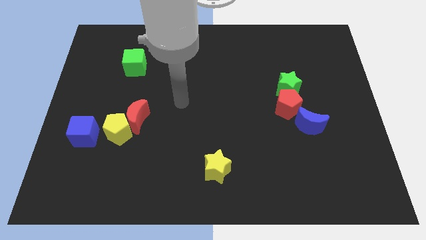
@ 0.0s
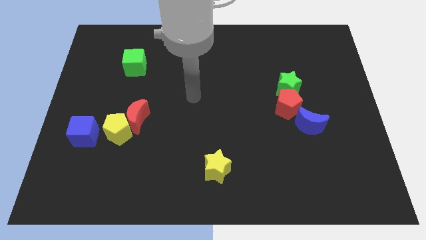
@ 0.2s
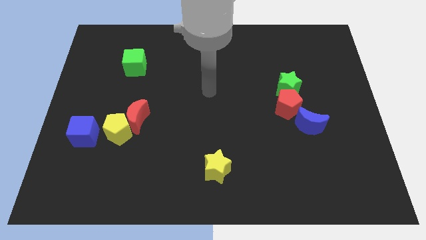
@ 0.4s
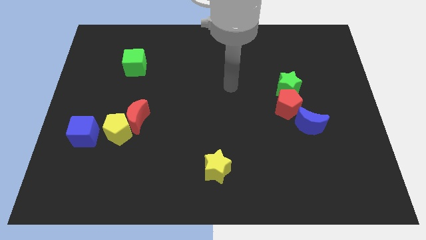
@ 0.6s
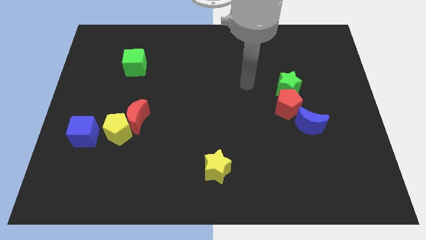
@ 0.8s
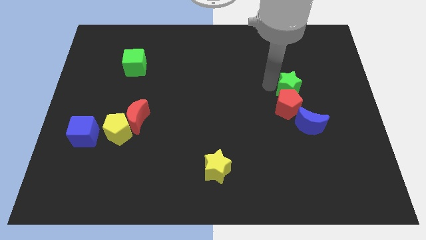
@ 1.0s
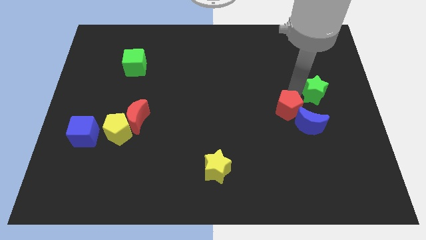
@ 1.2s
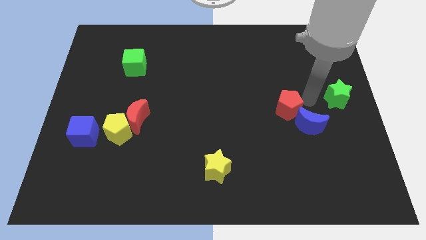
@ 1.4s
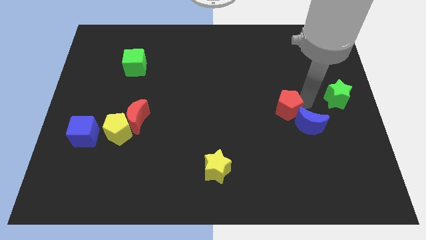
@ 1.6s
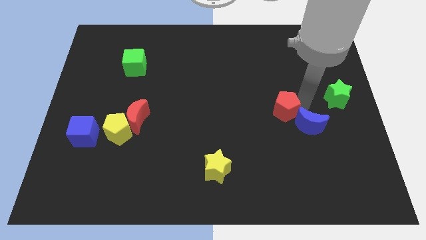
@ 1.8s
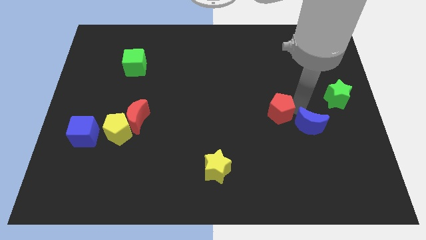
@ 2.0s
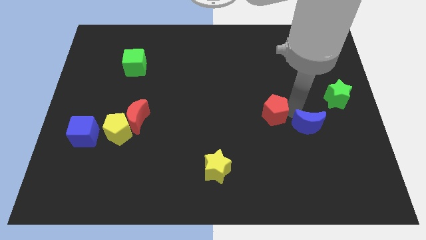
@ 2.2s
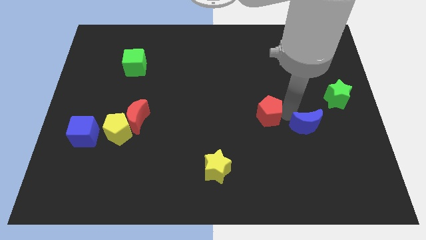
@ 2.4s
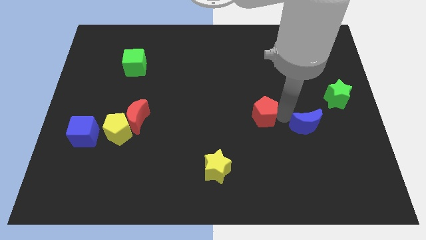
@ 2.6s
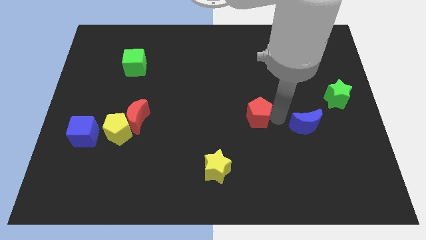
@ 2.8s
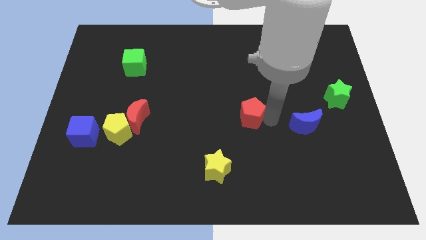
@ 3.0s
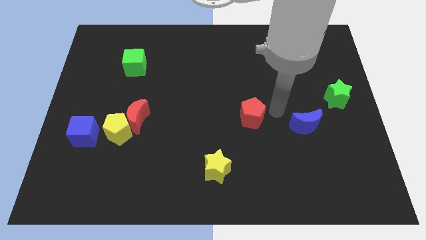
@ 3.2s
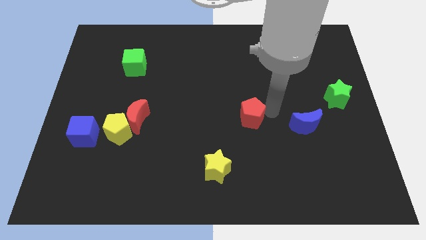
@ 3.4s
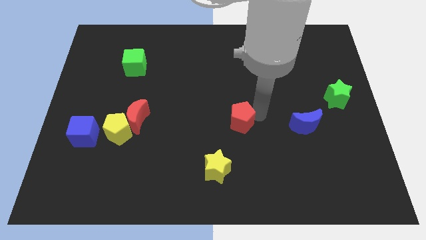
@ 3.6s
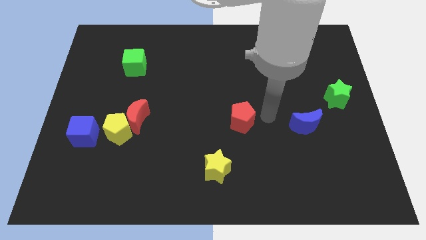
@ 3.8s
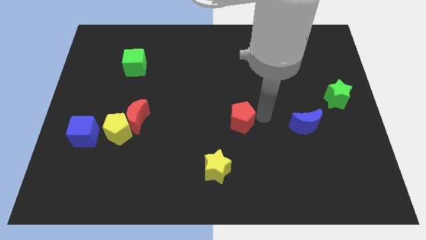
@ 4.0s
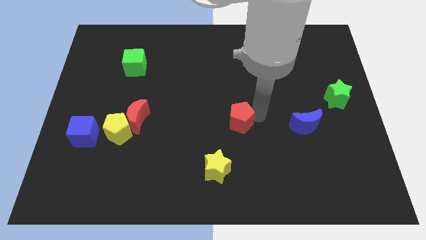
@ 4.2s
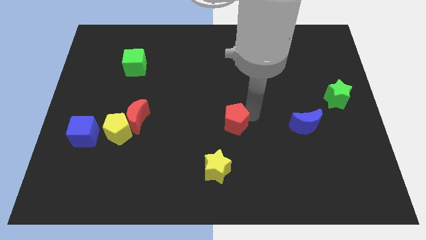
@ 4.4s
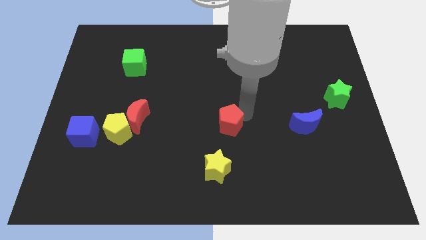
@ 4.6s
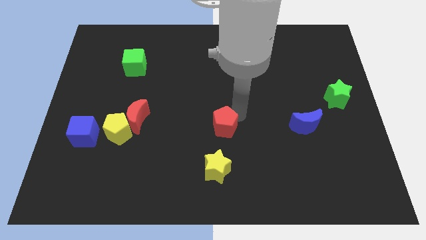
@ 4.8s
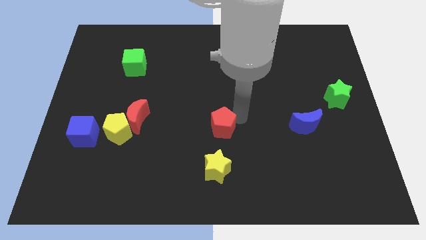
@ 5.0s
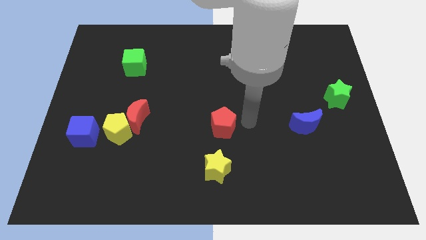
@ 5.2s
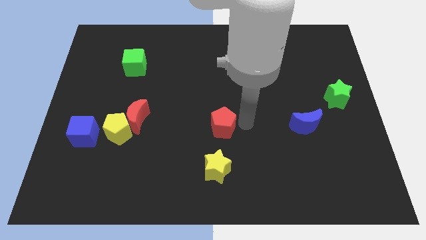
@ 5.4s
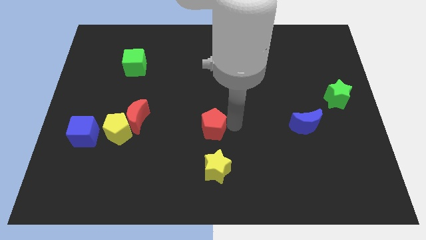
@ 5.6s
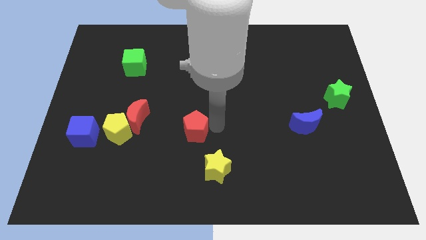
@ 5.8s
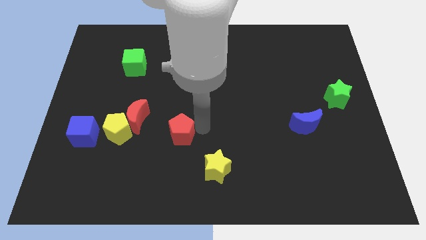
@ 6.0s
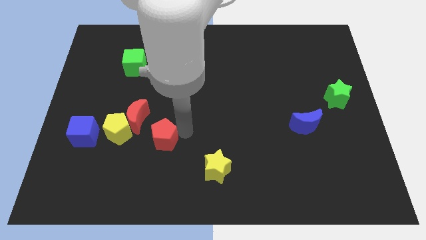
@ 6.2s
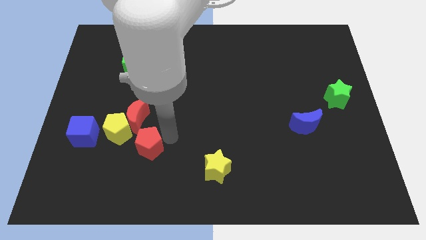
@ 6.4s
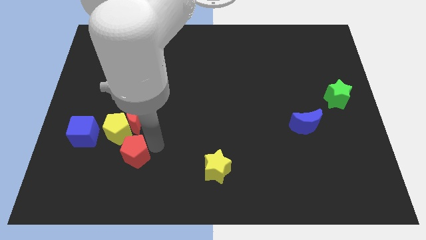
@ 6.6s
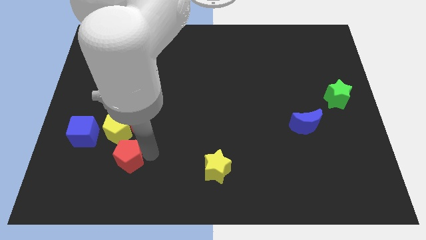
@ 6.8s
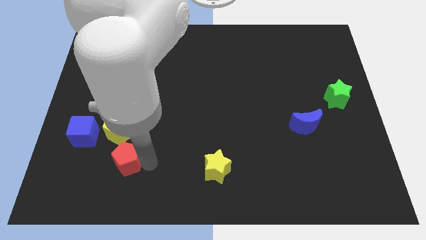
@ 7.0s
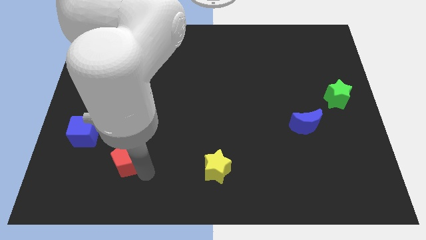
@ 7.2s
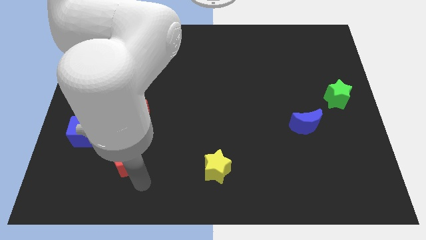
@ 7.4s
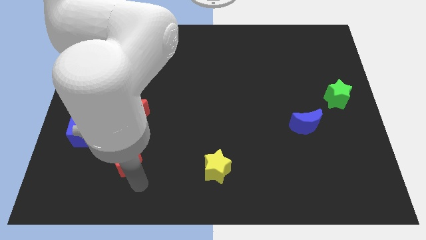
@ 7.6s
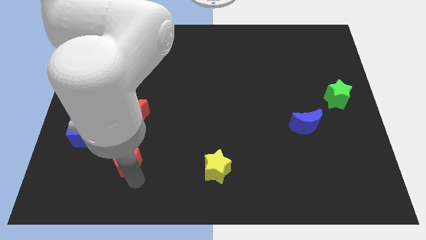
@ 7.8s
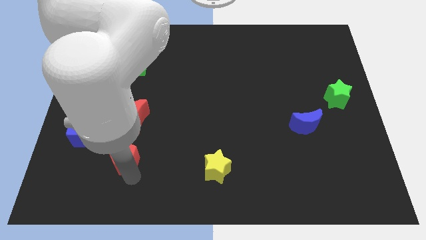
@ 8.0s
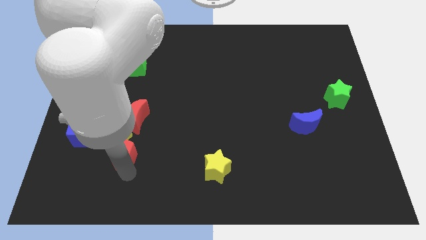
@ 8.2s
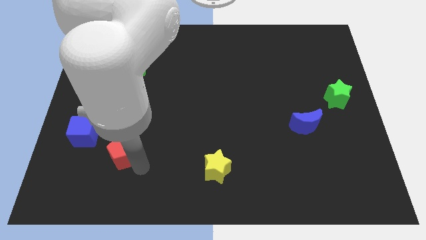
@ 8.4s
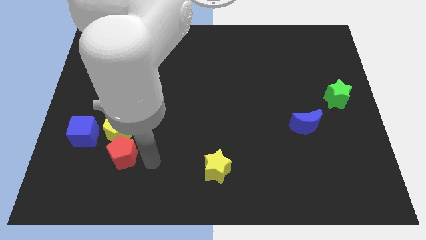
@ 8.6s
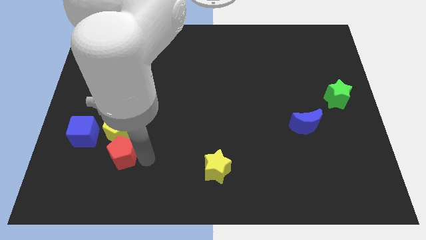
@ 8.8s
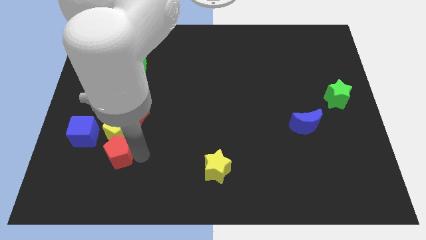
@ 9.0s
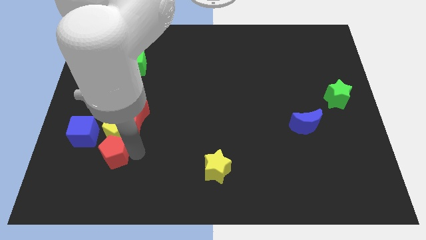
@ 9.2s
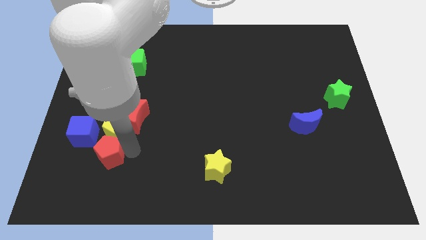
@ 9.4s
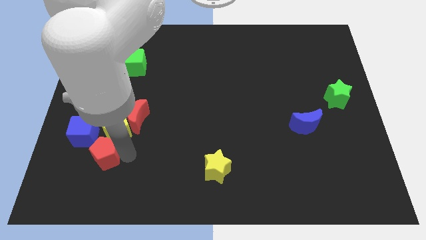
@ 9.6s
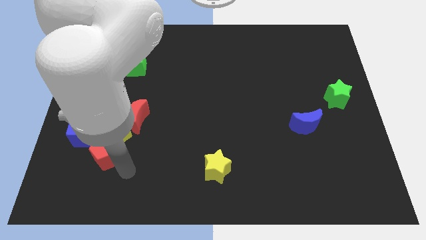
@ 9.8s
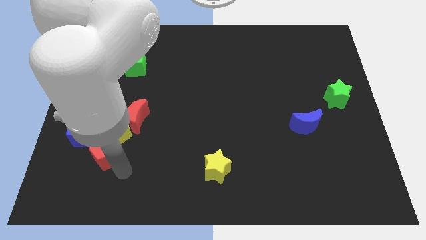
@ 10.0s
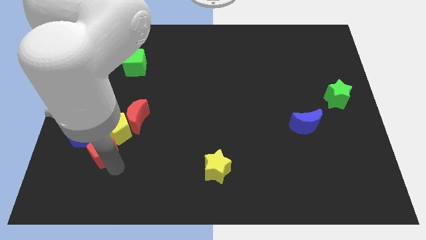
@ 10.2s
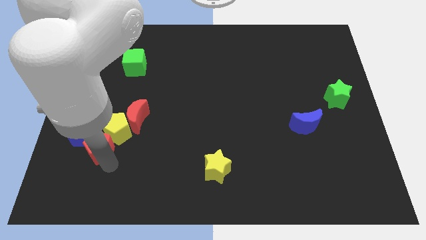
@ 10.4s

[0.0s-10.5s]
put the red pentagon to the blue cube

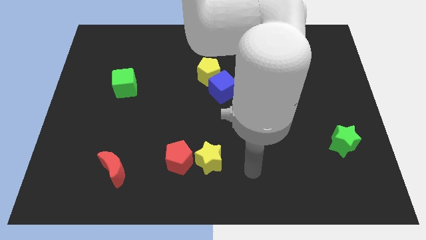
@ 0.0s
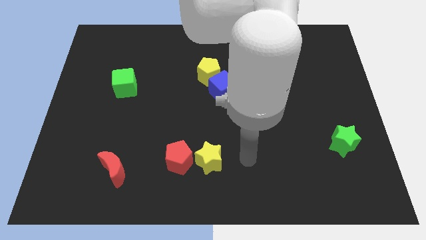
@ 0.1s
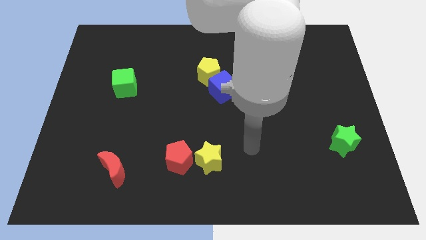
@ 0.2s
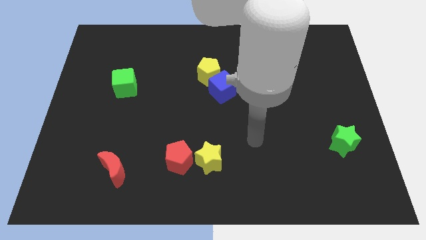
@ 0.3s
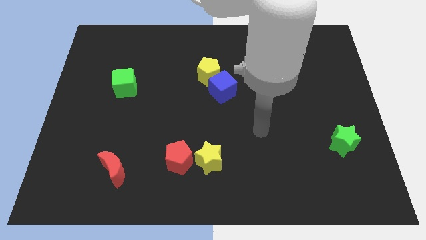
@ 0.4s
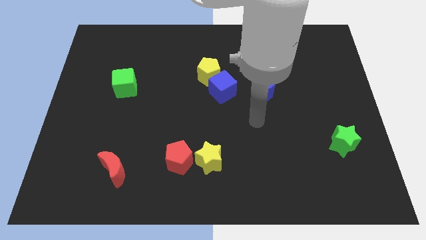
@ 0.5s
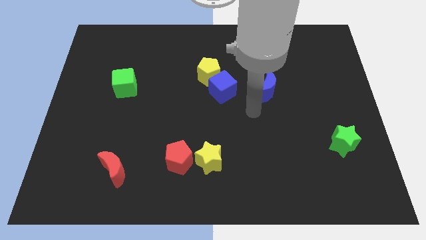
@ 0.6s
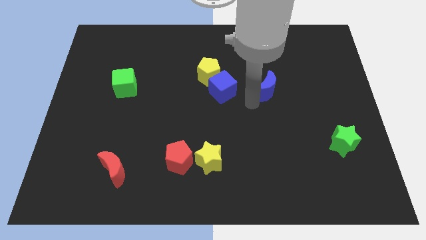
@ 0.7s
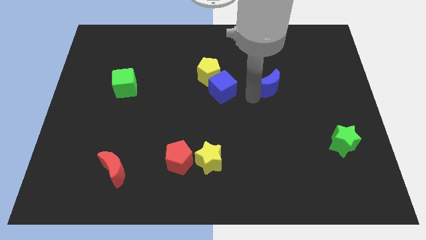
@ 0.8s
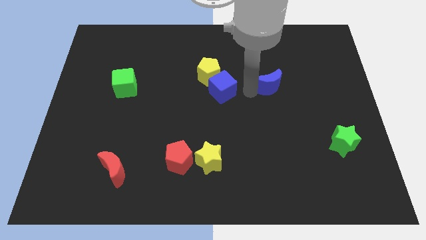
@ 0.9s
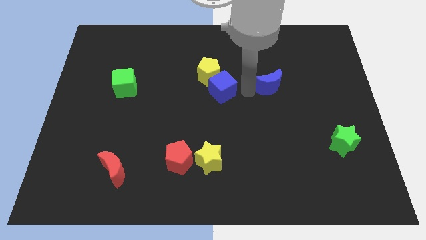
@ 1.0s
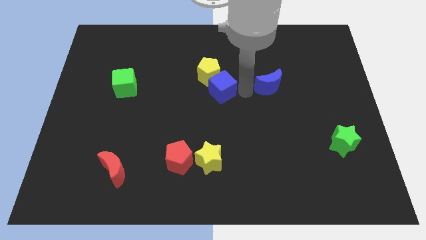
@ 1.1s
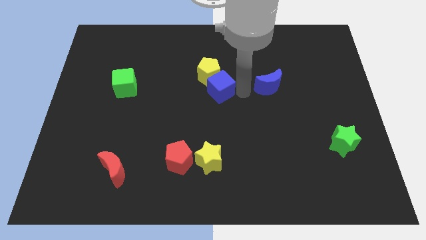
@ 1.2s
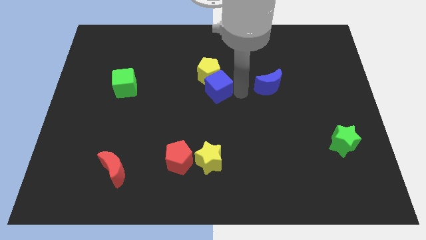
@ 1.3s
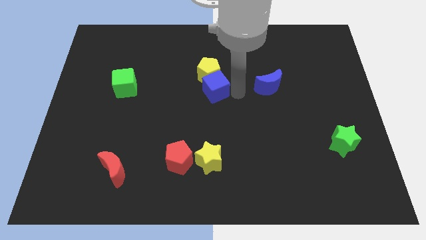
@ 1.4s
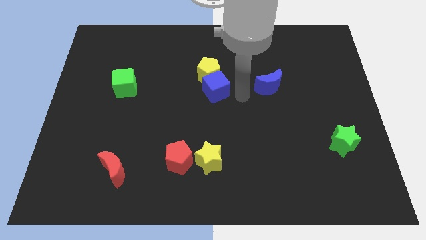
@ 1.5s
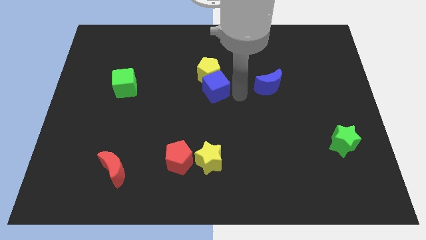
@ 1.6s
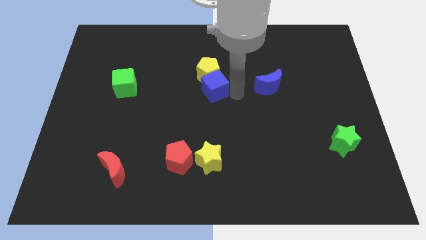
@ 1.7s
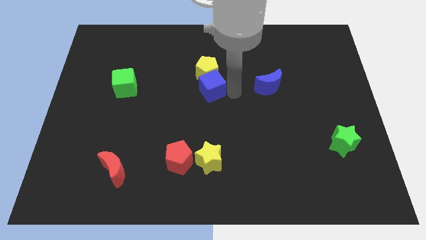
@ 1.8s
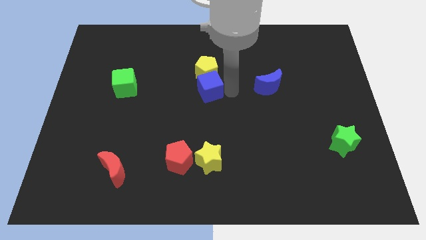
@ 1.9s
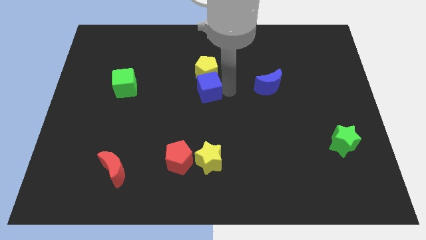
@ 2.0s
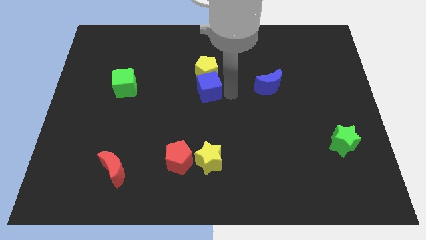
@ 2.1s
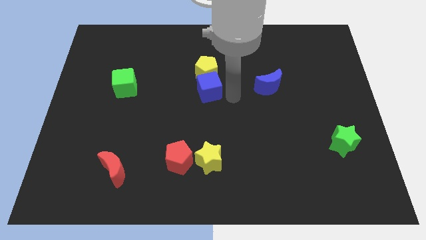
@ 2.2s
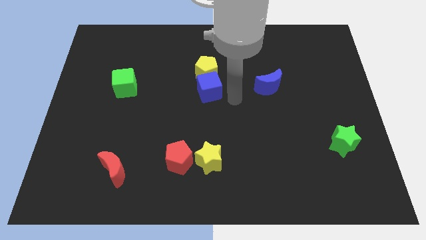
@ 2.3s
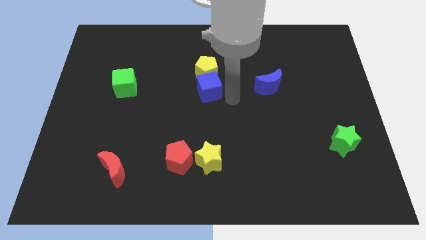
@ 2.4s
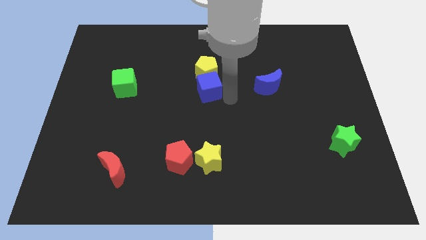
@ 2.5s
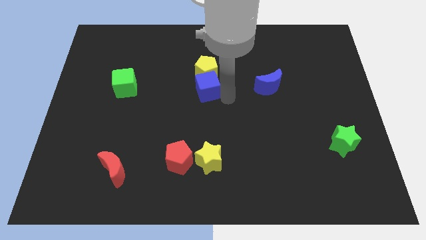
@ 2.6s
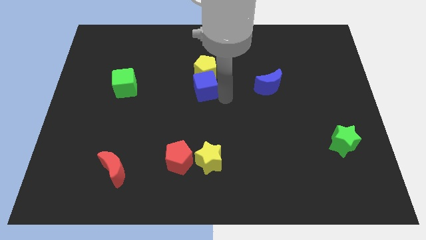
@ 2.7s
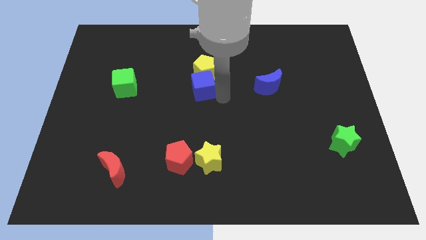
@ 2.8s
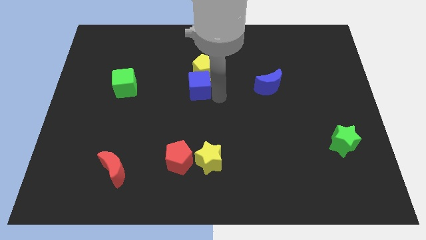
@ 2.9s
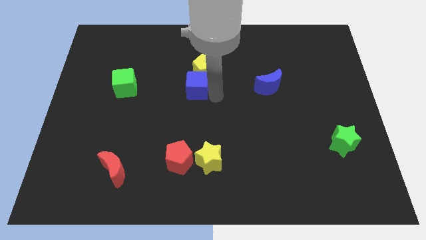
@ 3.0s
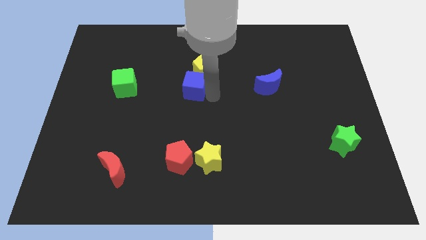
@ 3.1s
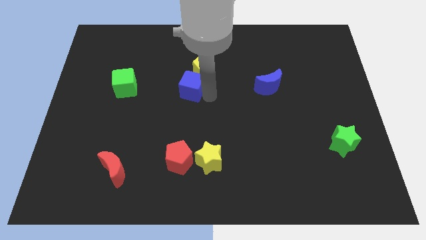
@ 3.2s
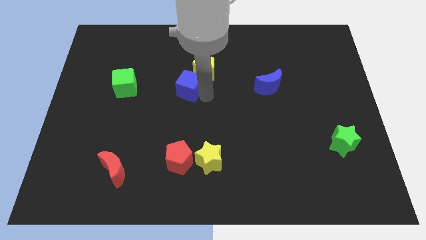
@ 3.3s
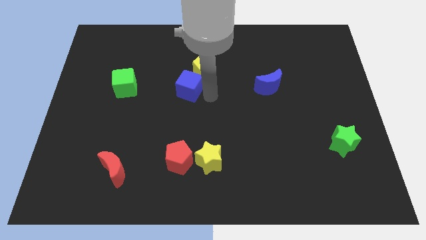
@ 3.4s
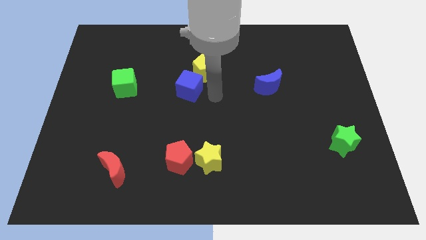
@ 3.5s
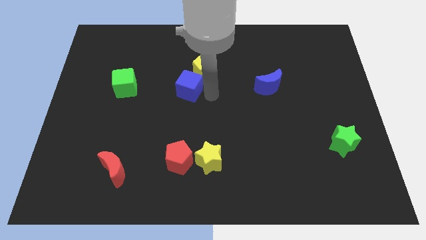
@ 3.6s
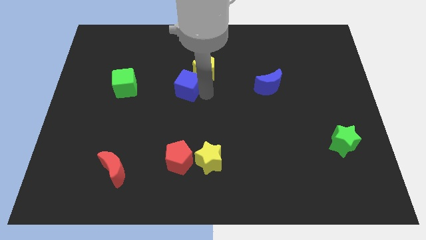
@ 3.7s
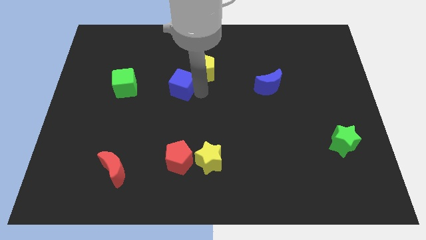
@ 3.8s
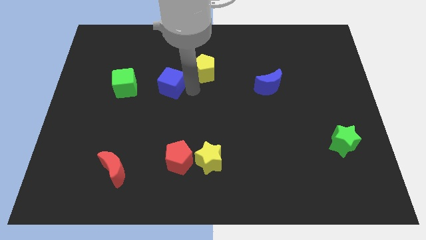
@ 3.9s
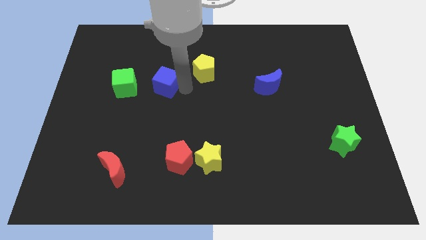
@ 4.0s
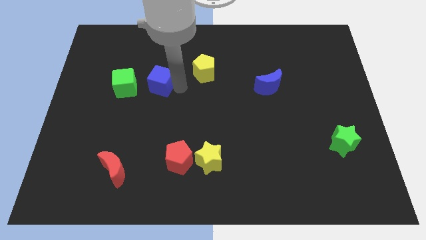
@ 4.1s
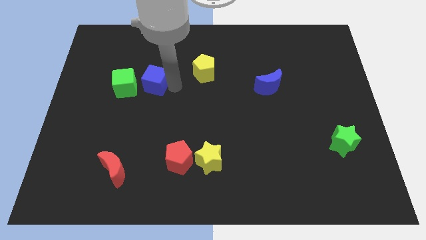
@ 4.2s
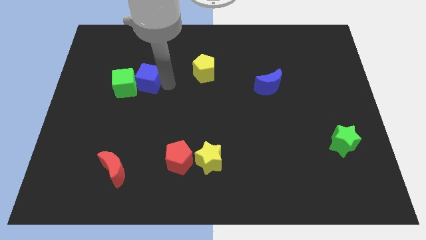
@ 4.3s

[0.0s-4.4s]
put the blue cube to the green cube
